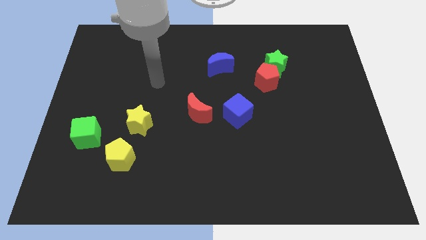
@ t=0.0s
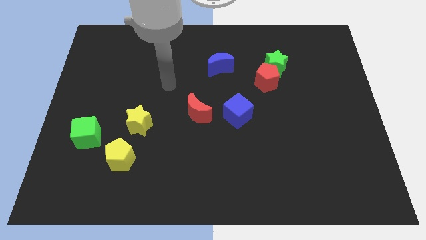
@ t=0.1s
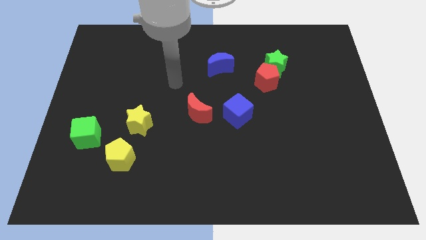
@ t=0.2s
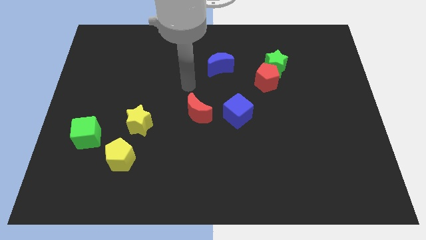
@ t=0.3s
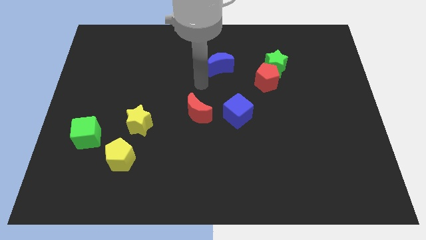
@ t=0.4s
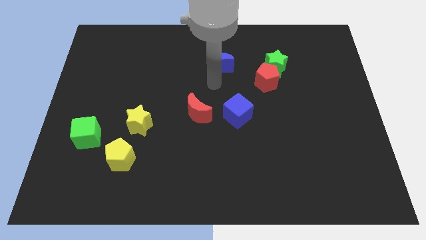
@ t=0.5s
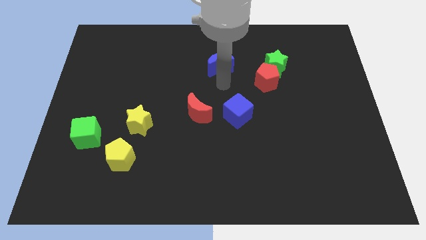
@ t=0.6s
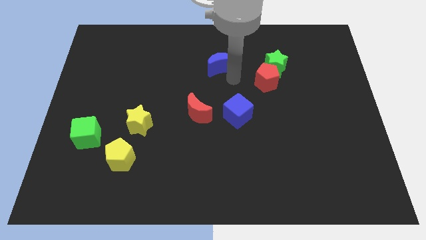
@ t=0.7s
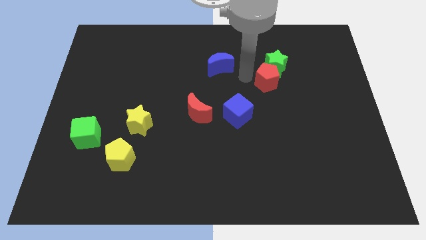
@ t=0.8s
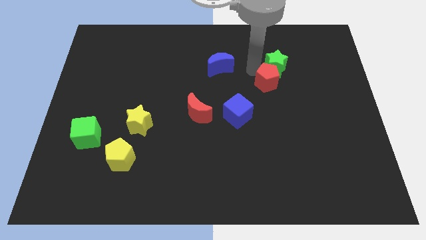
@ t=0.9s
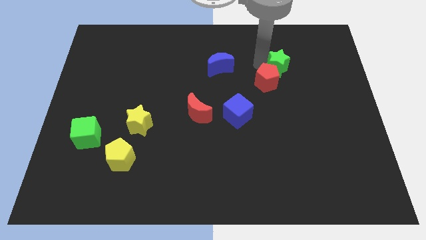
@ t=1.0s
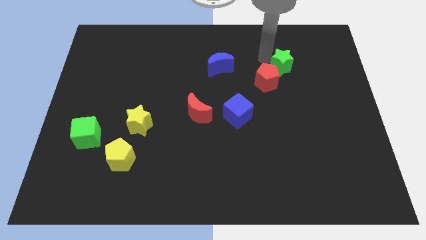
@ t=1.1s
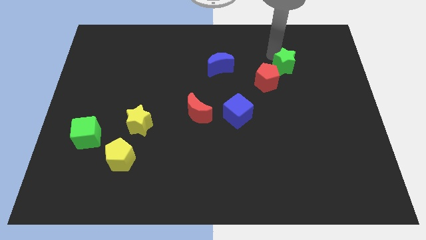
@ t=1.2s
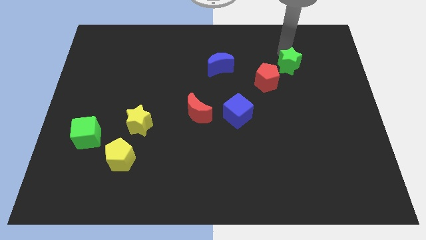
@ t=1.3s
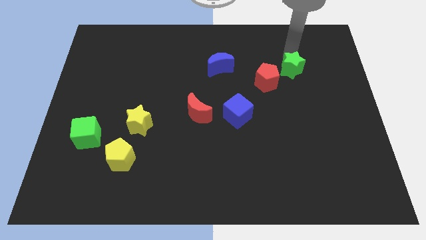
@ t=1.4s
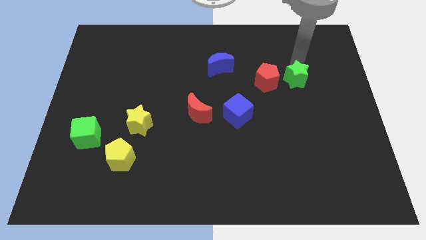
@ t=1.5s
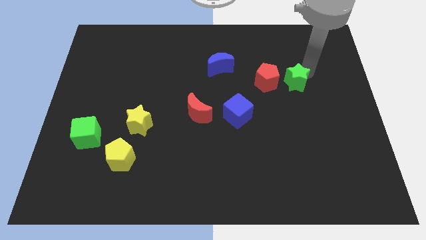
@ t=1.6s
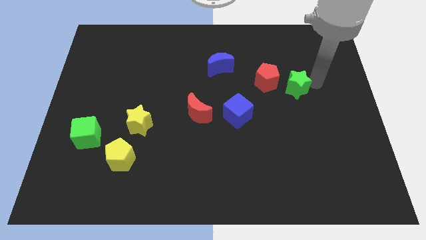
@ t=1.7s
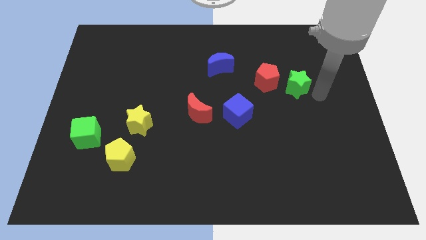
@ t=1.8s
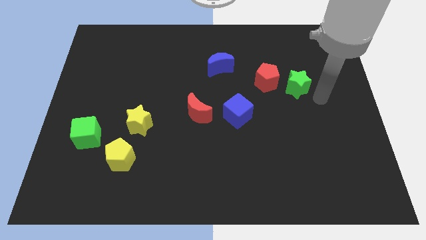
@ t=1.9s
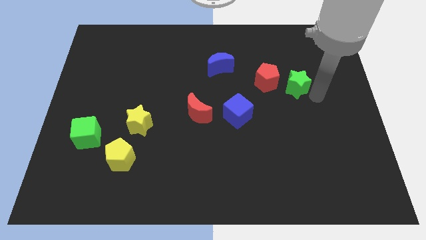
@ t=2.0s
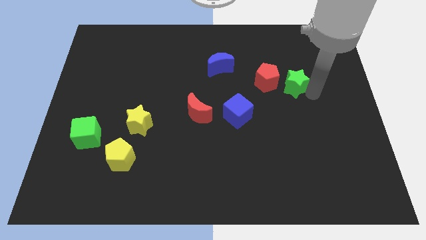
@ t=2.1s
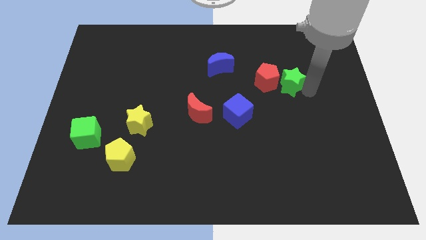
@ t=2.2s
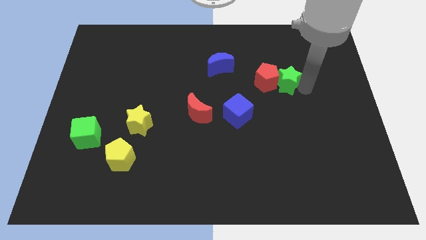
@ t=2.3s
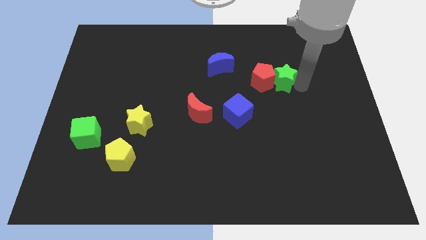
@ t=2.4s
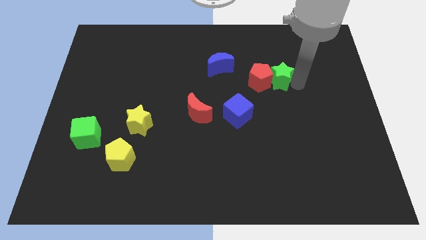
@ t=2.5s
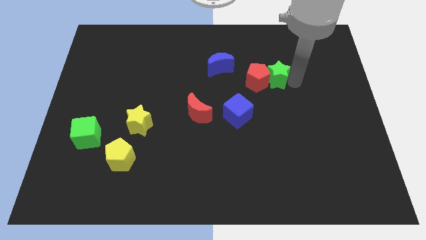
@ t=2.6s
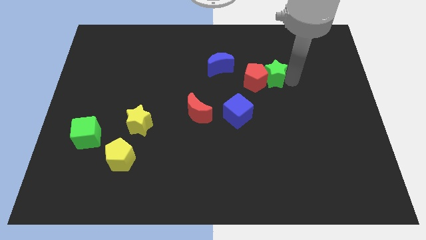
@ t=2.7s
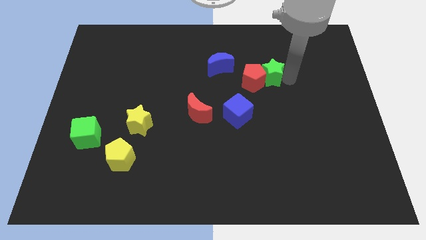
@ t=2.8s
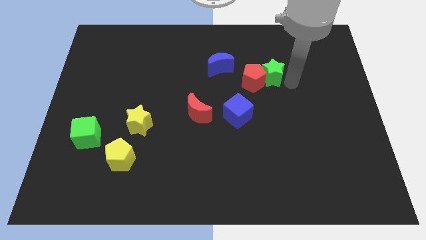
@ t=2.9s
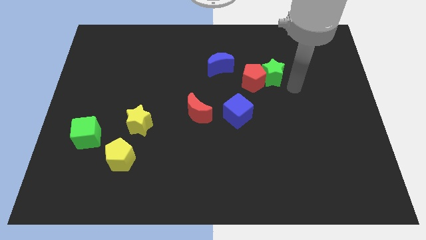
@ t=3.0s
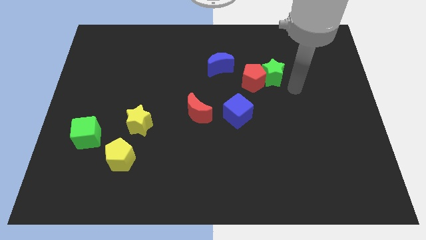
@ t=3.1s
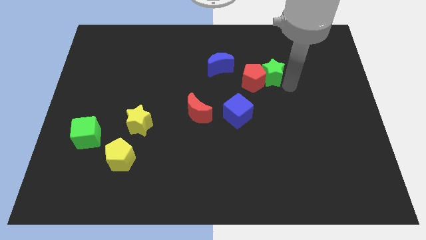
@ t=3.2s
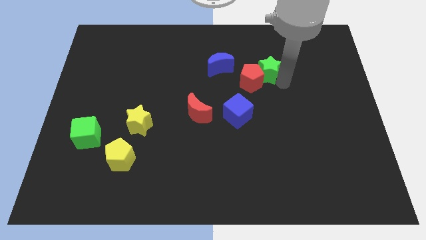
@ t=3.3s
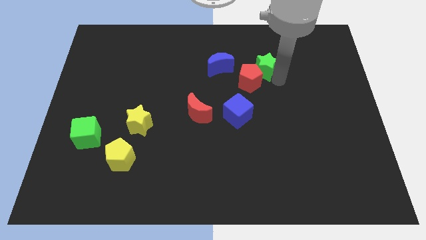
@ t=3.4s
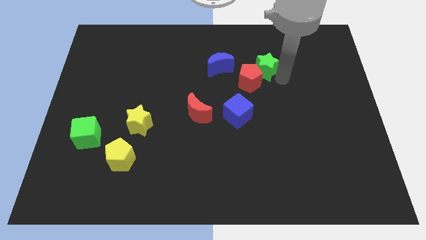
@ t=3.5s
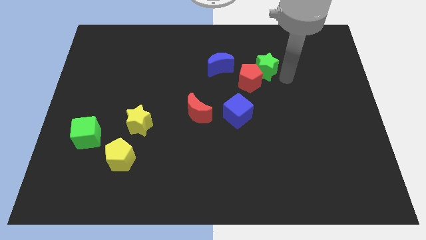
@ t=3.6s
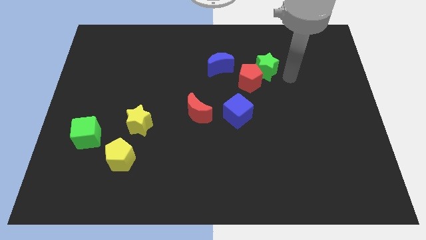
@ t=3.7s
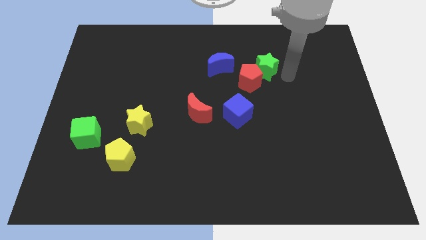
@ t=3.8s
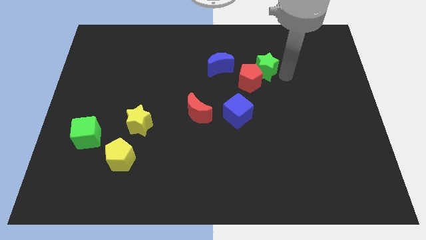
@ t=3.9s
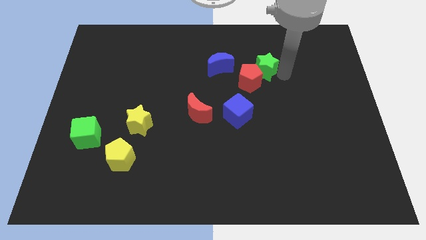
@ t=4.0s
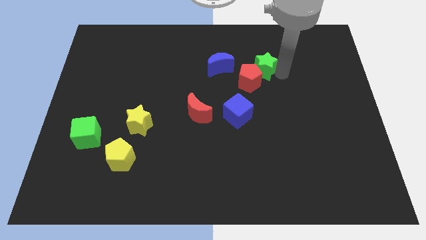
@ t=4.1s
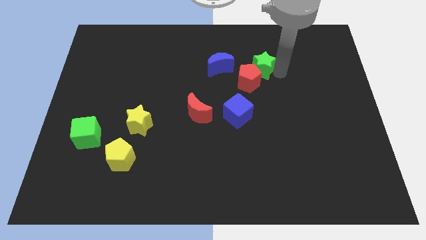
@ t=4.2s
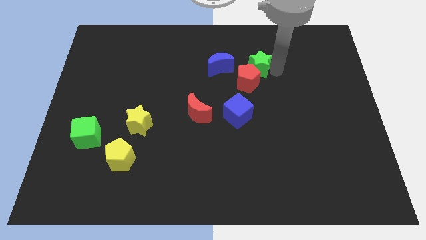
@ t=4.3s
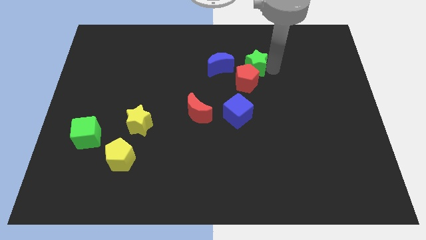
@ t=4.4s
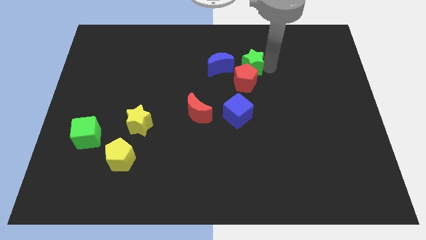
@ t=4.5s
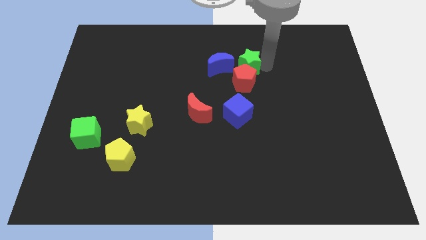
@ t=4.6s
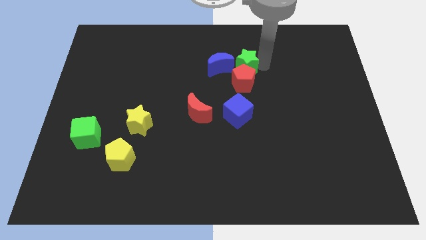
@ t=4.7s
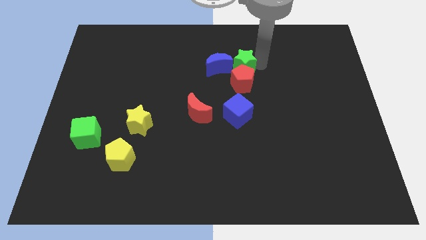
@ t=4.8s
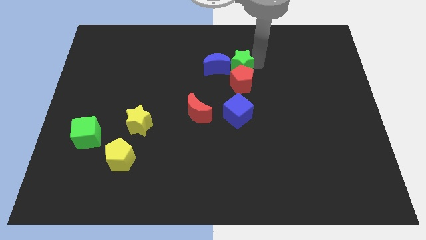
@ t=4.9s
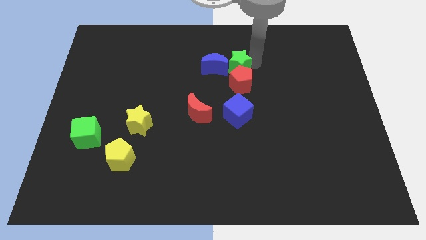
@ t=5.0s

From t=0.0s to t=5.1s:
slide the green star close to the blue moon

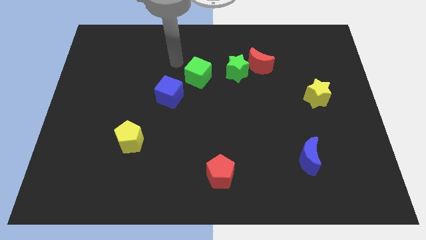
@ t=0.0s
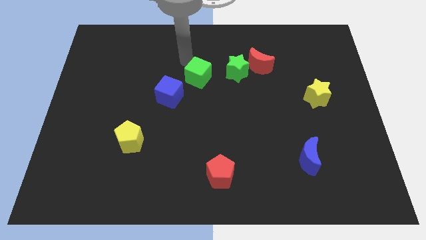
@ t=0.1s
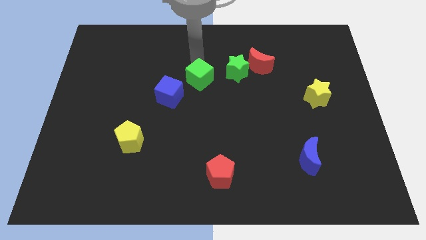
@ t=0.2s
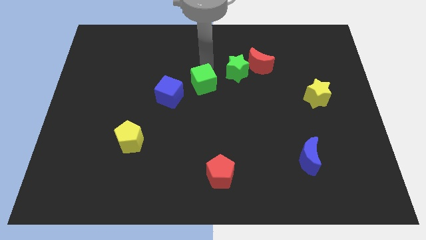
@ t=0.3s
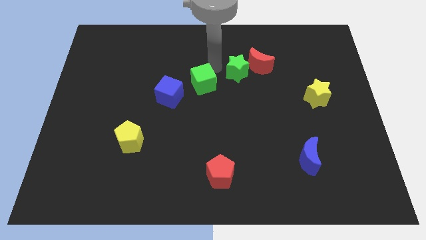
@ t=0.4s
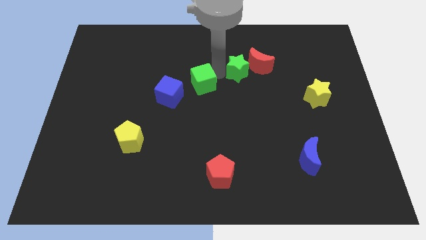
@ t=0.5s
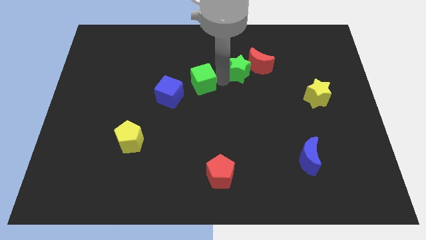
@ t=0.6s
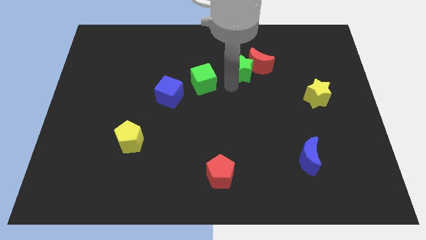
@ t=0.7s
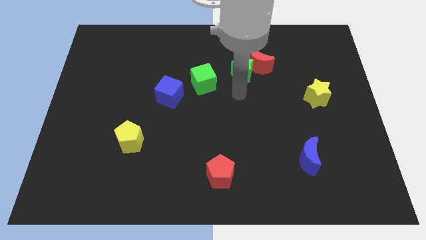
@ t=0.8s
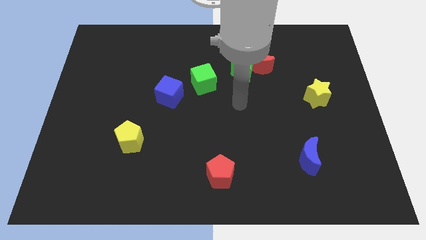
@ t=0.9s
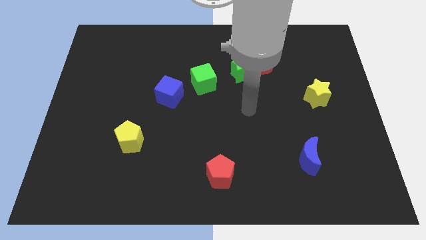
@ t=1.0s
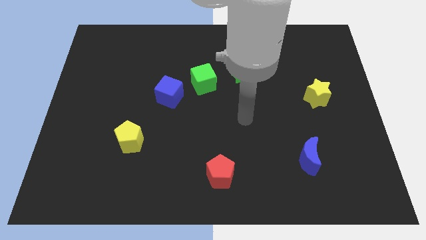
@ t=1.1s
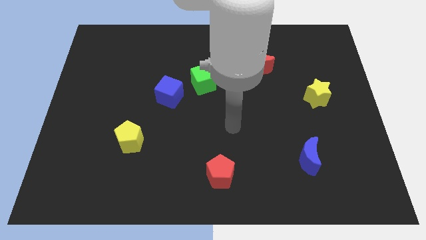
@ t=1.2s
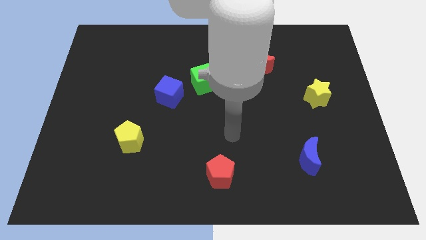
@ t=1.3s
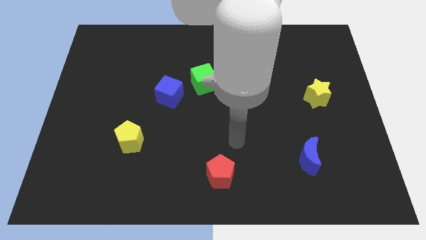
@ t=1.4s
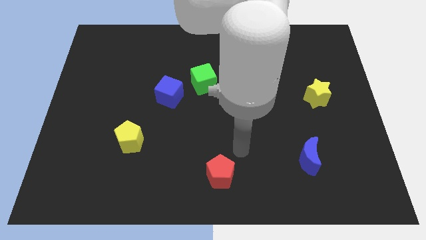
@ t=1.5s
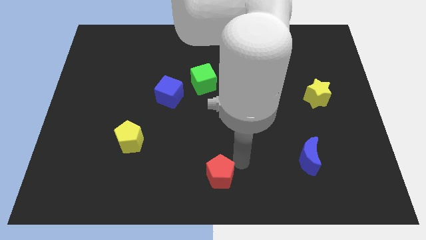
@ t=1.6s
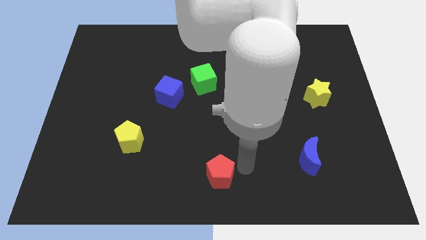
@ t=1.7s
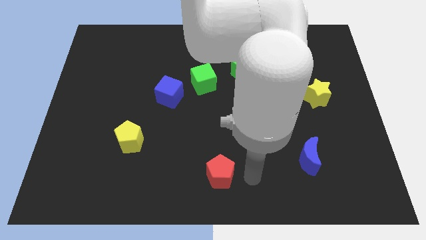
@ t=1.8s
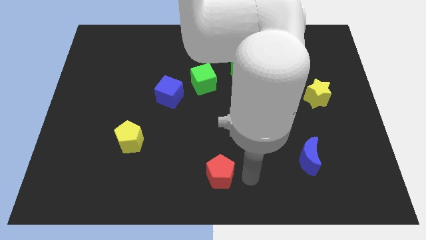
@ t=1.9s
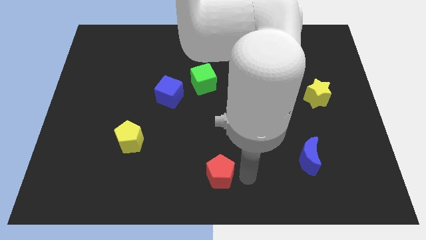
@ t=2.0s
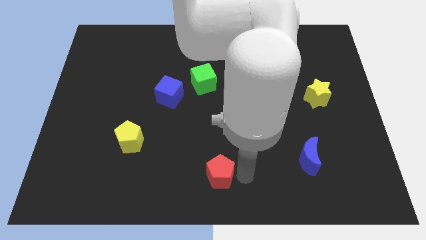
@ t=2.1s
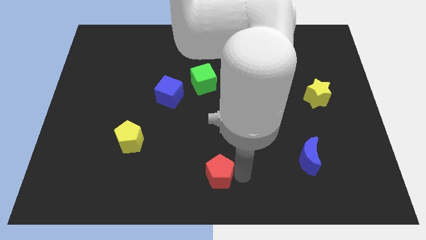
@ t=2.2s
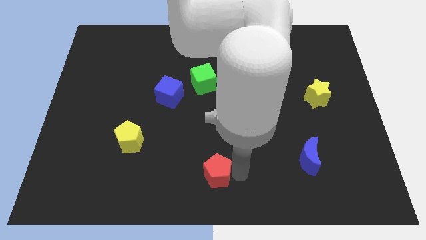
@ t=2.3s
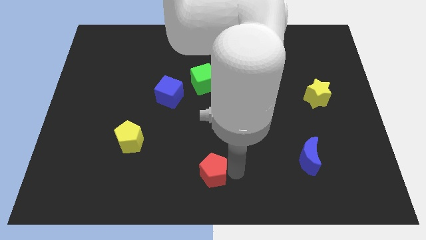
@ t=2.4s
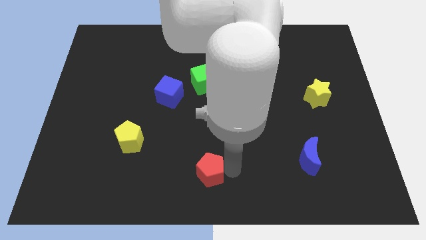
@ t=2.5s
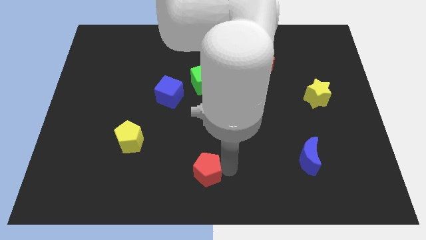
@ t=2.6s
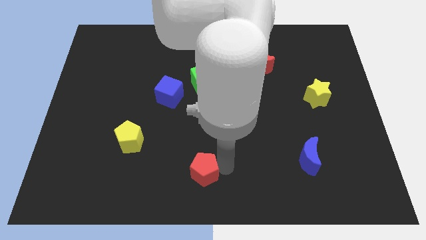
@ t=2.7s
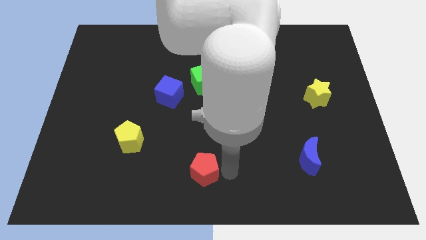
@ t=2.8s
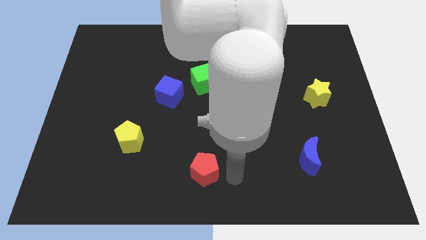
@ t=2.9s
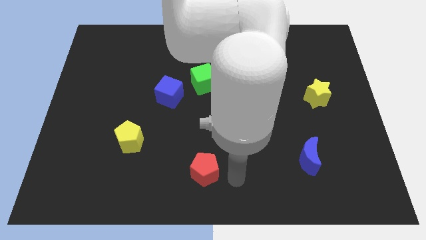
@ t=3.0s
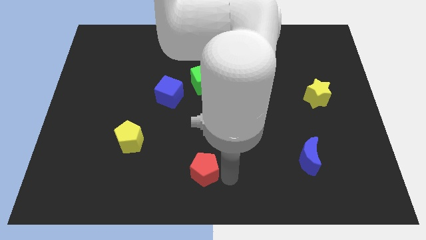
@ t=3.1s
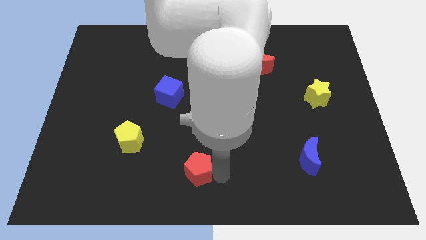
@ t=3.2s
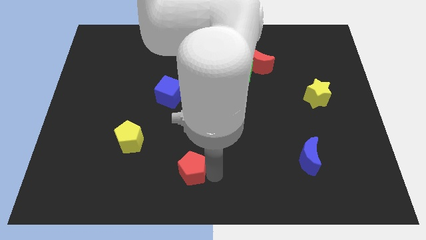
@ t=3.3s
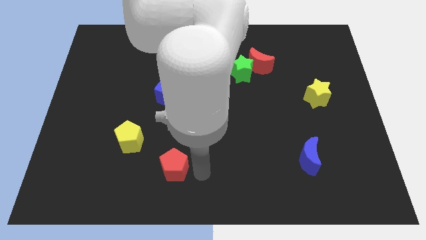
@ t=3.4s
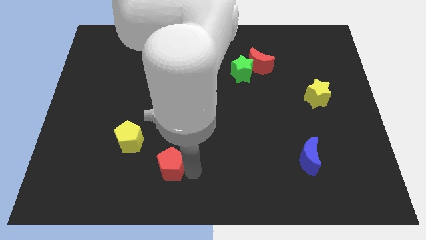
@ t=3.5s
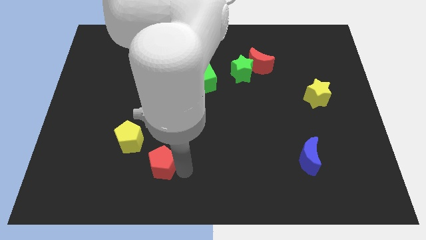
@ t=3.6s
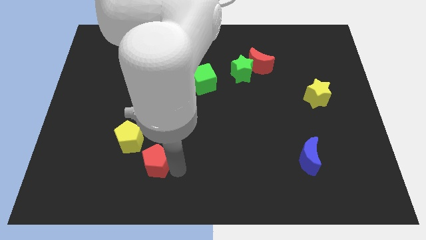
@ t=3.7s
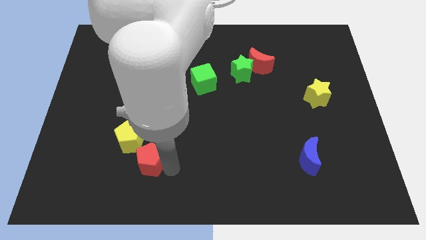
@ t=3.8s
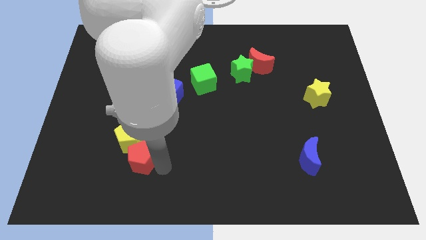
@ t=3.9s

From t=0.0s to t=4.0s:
push the red pentagon towards the yellow pentagon
